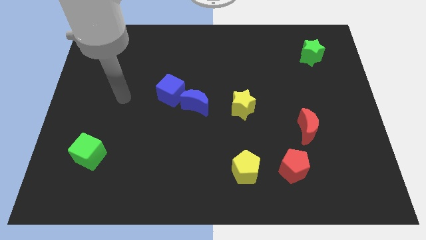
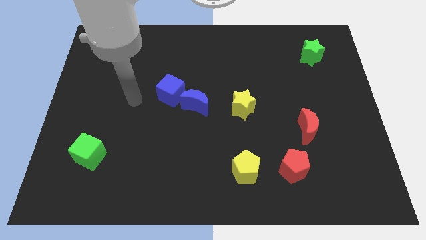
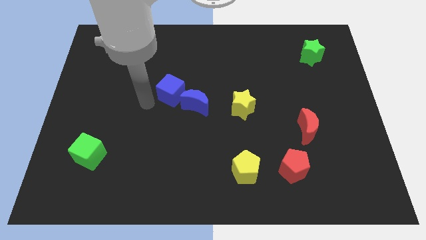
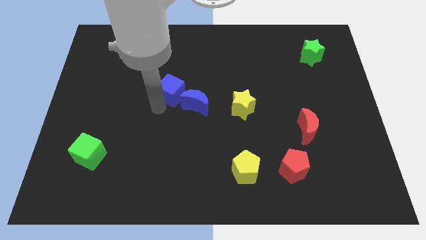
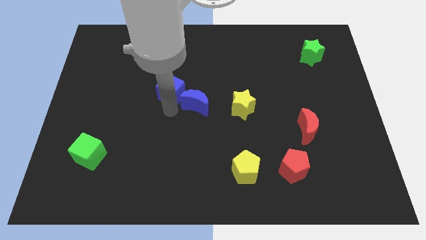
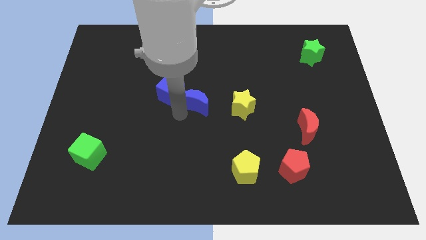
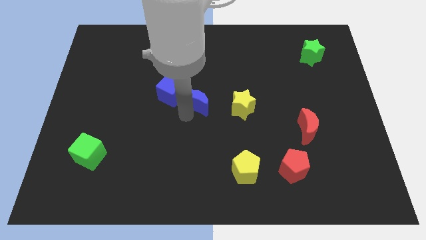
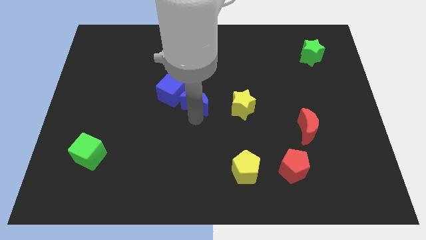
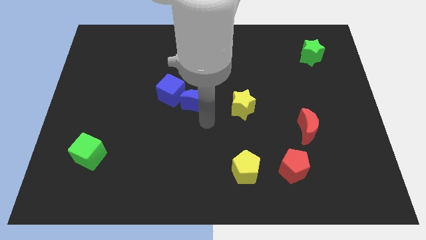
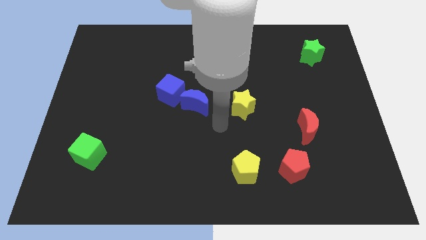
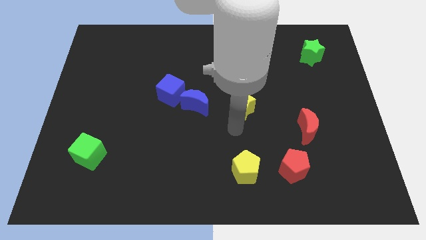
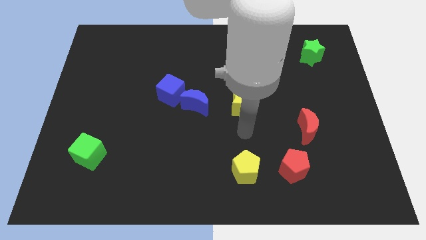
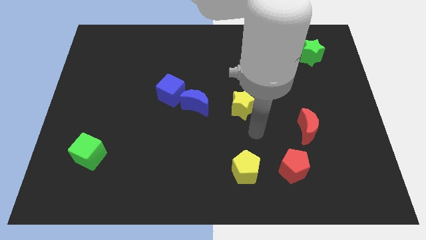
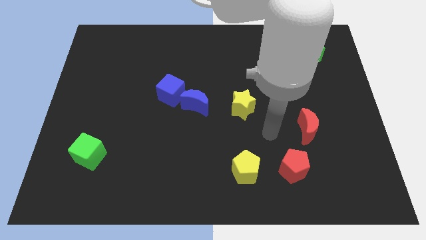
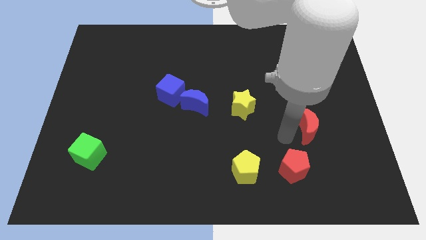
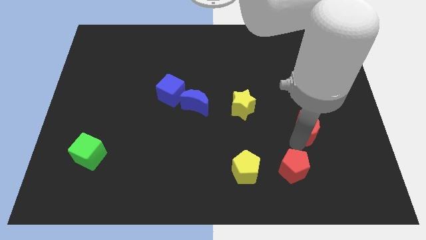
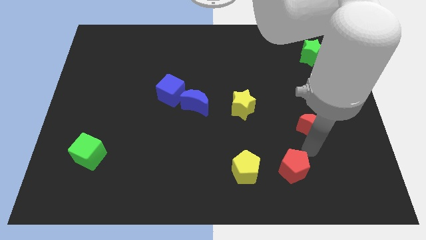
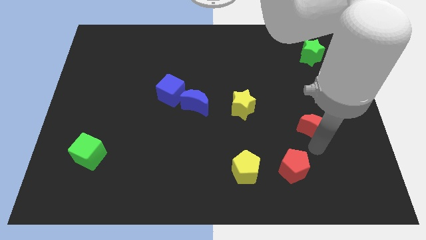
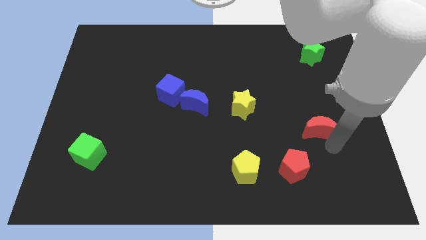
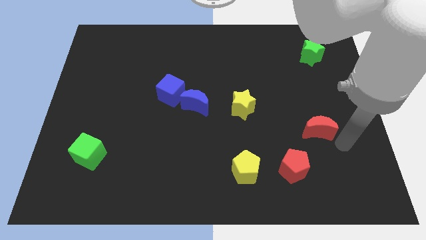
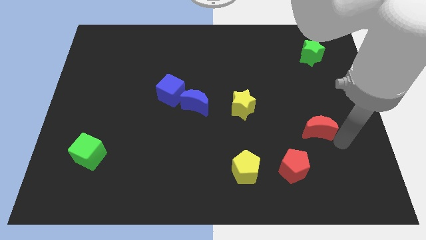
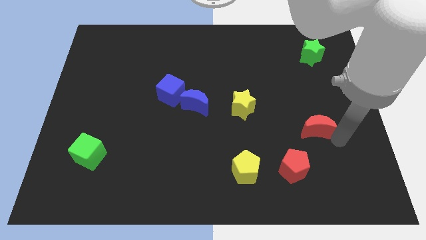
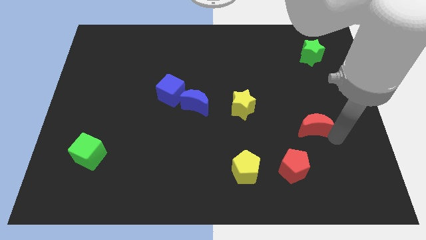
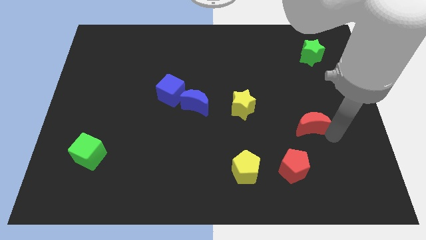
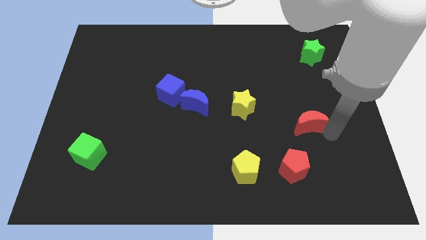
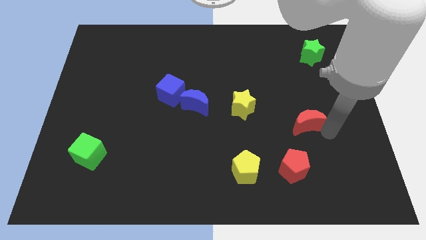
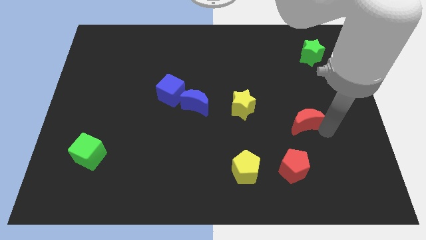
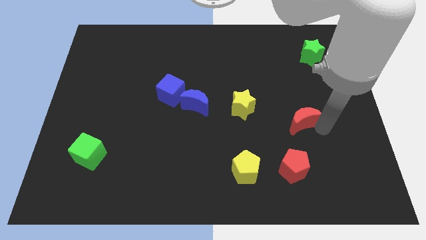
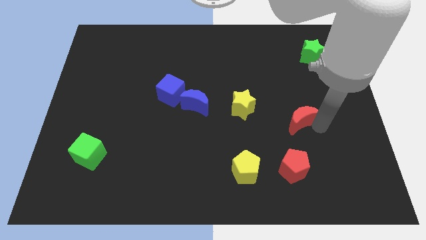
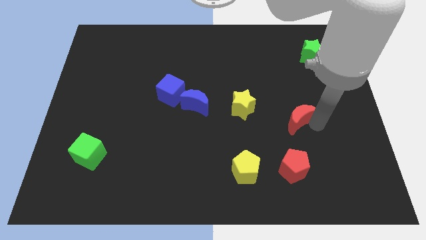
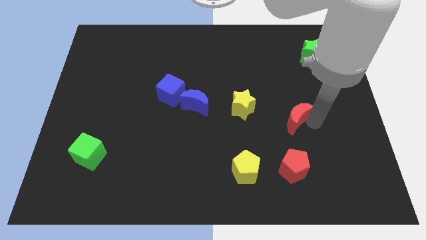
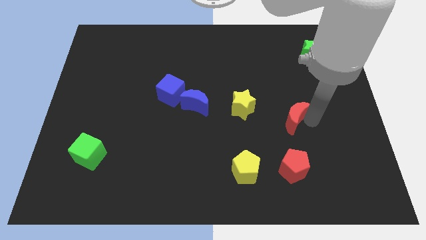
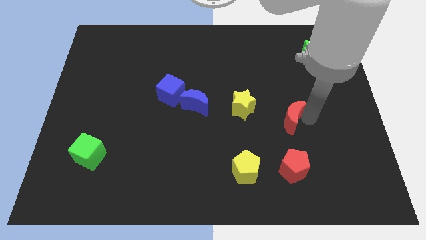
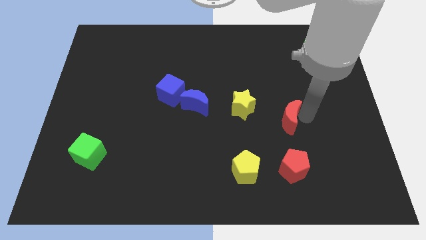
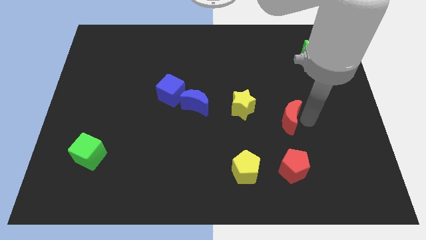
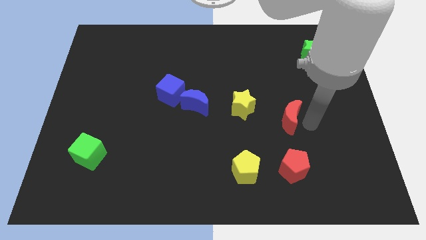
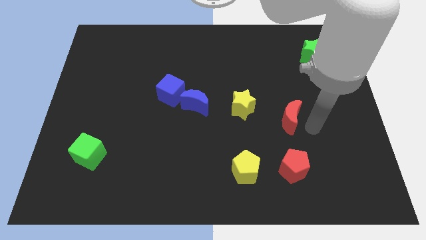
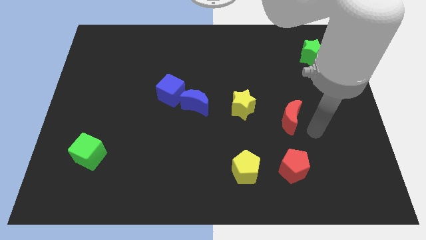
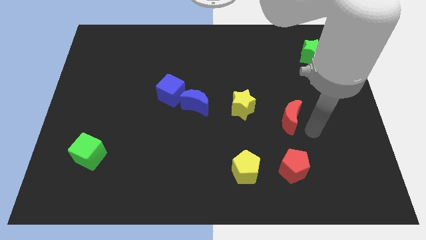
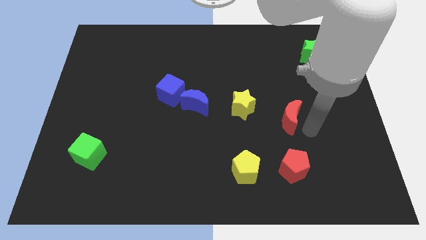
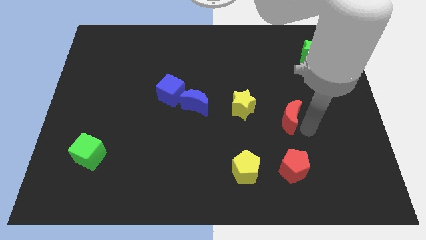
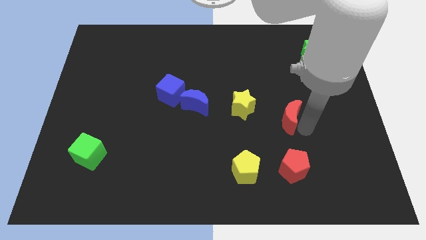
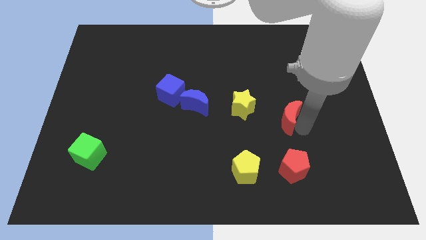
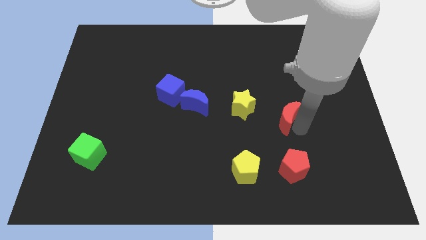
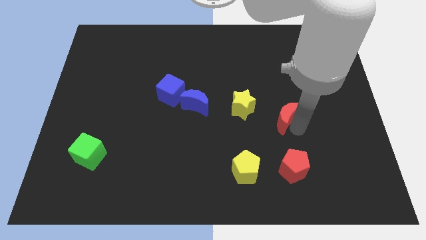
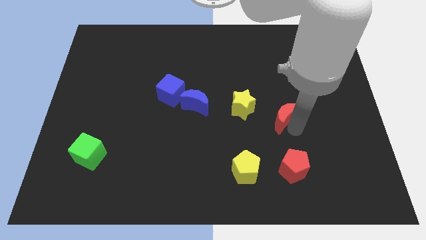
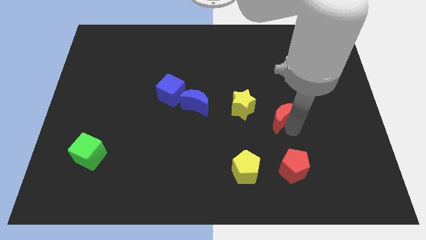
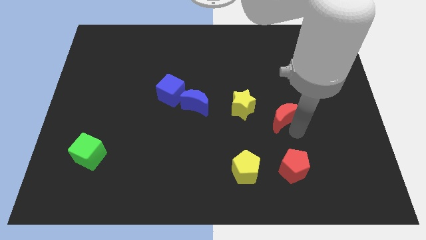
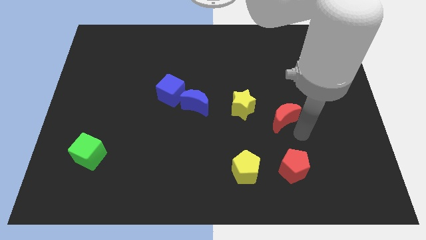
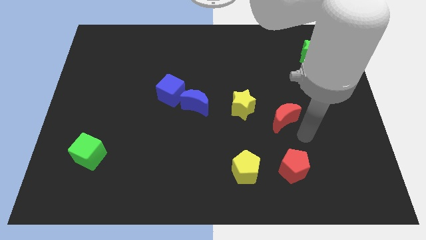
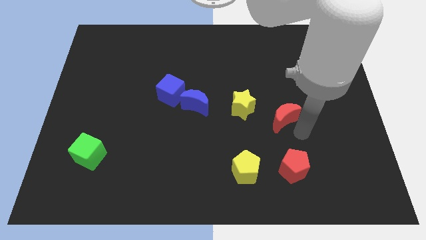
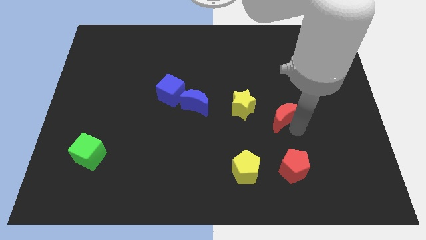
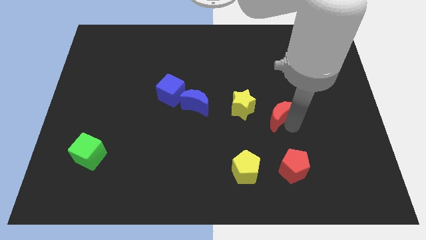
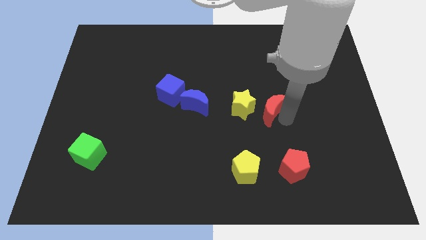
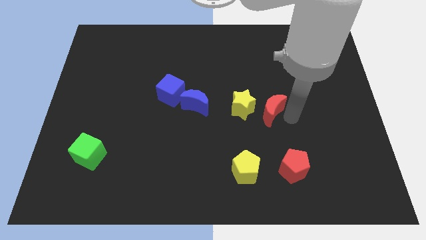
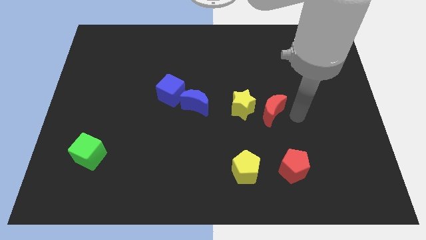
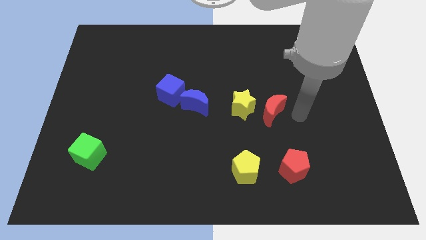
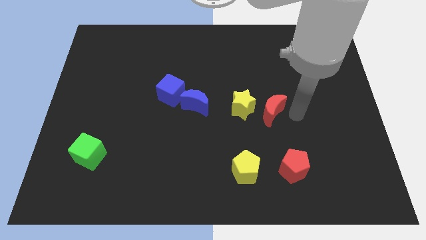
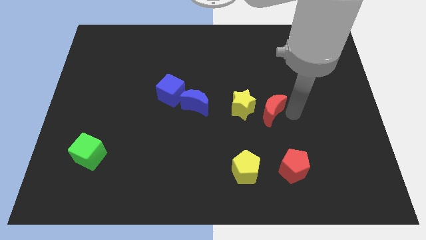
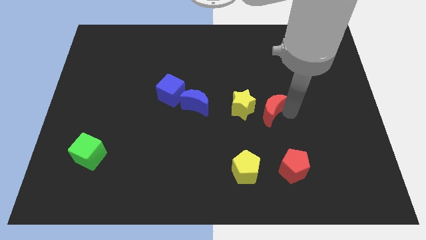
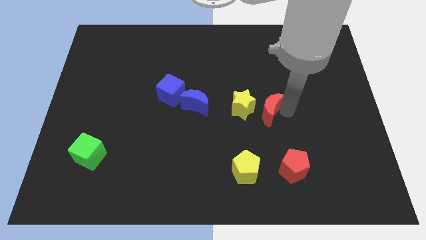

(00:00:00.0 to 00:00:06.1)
move the red moon next to the yellow star

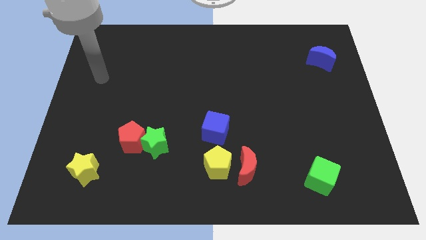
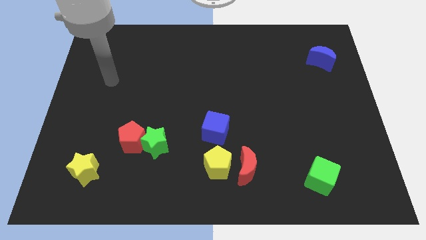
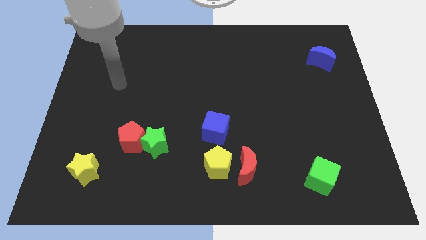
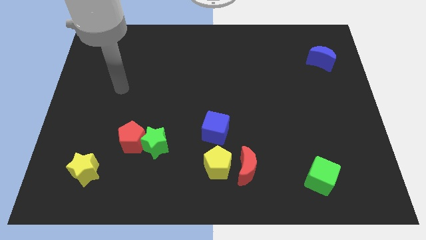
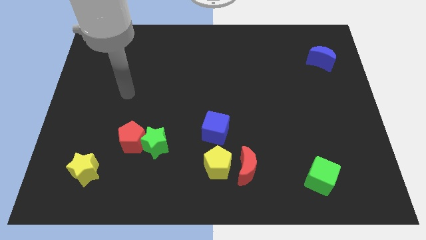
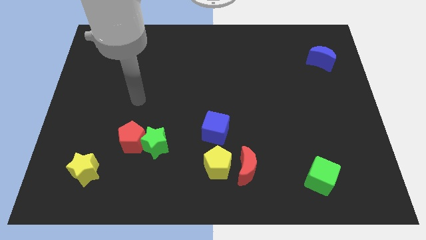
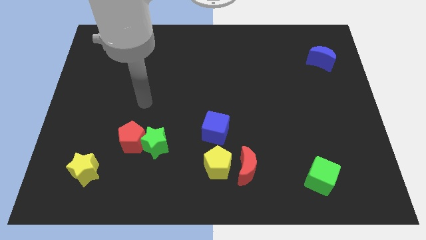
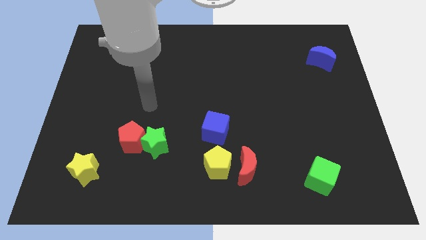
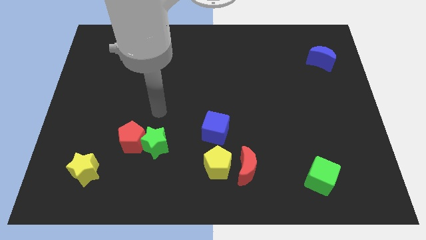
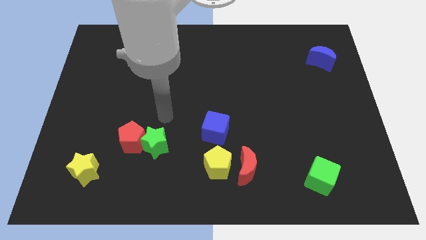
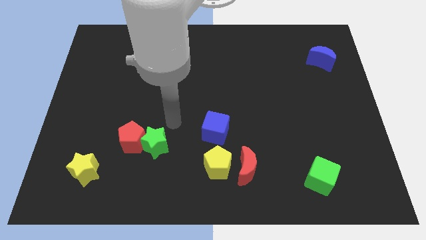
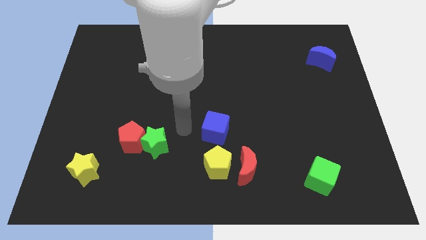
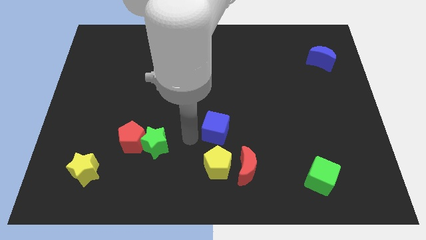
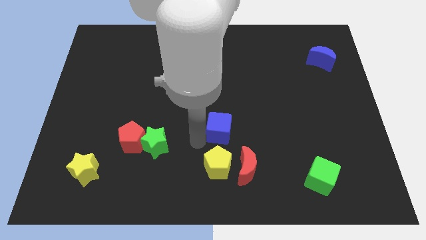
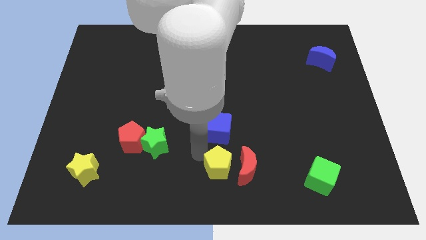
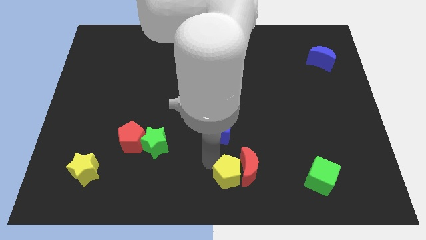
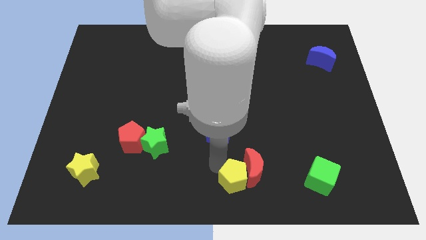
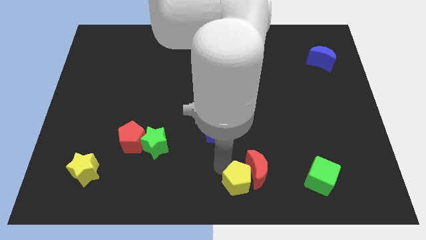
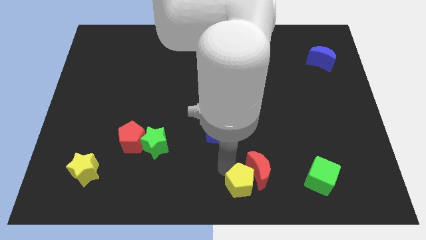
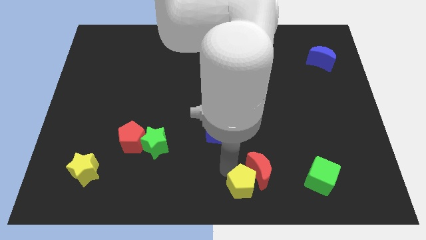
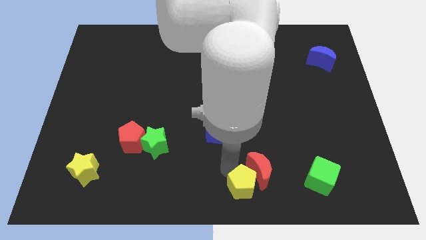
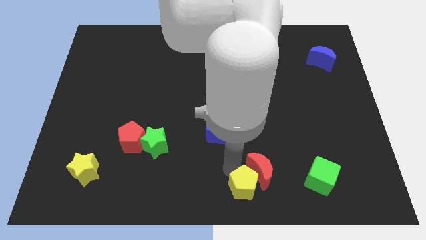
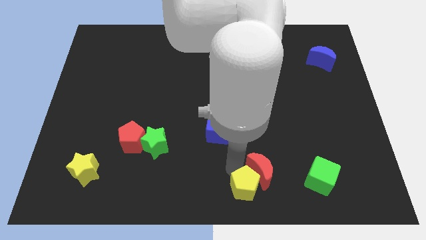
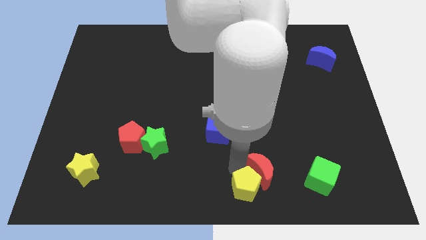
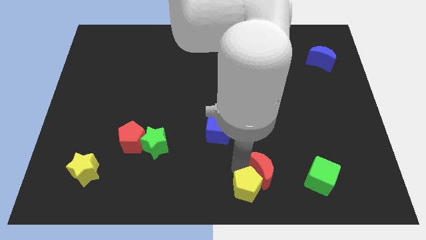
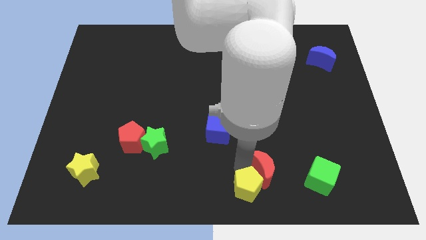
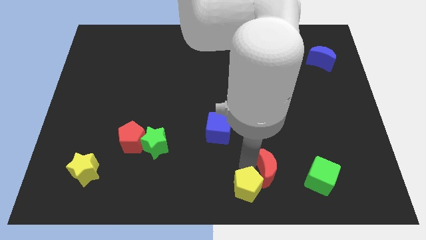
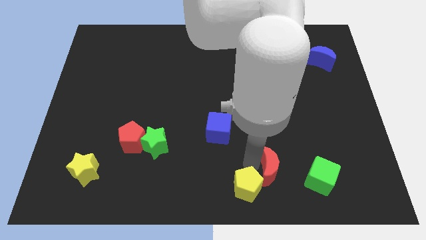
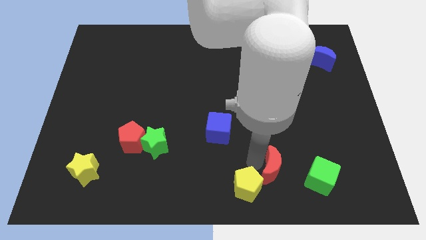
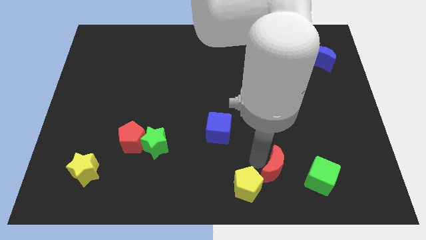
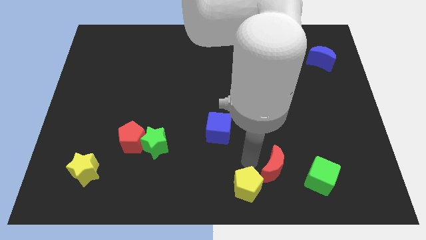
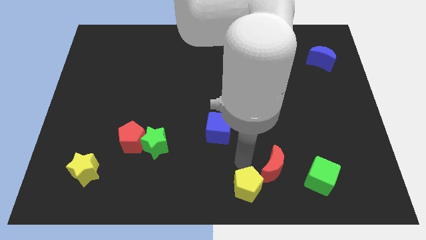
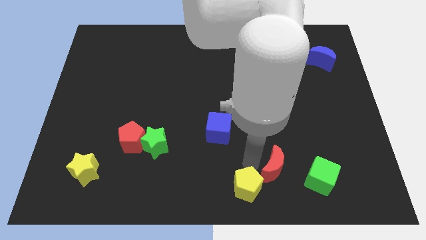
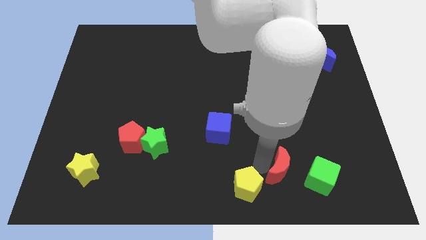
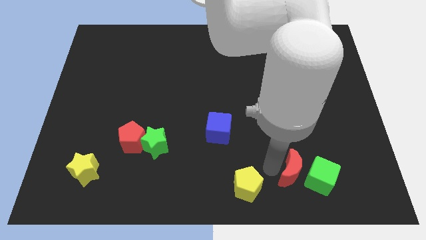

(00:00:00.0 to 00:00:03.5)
put the red moon close to the green cube
